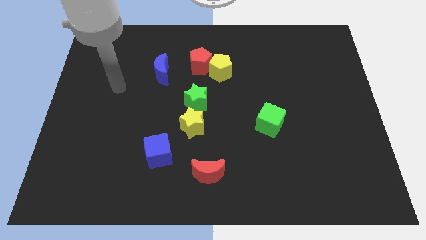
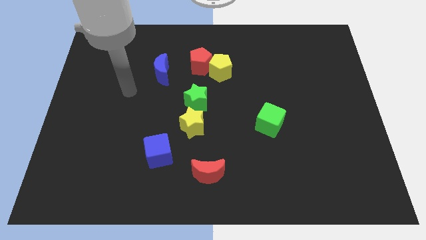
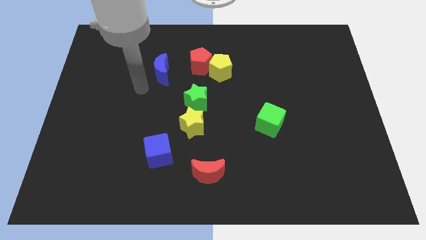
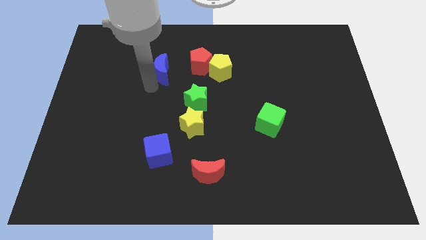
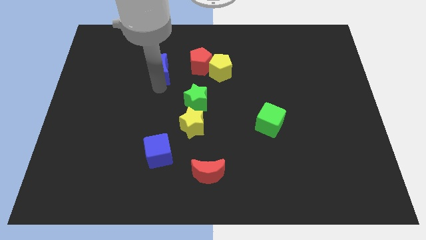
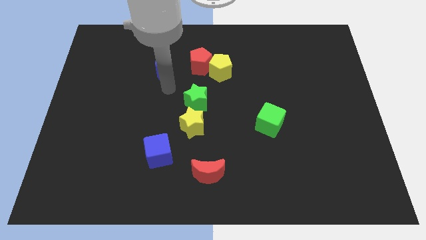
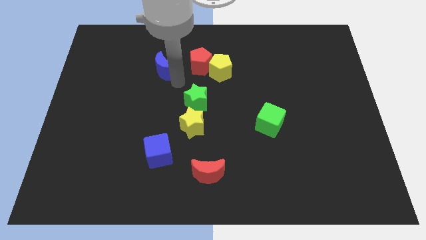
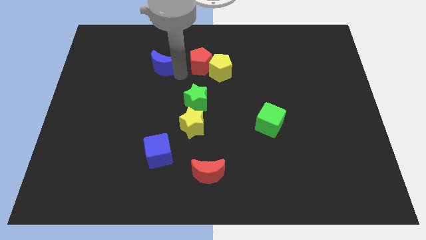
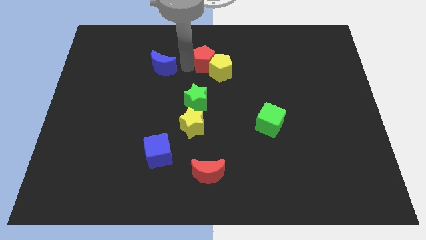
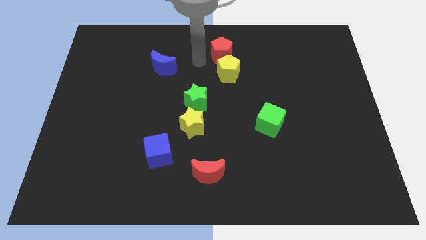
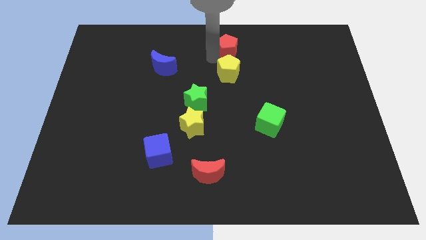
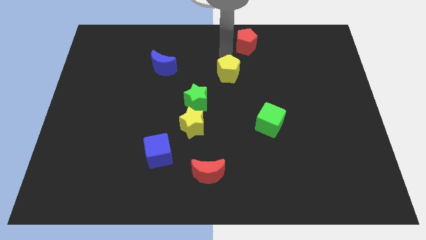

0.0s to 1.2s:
separate the yellow pentagon from the red pentagon

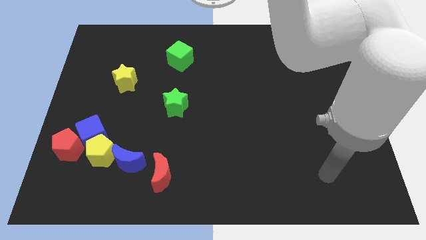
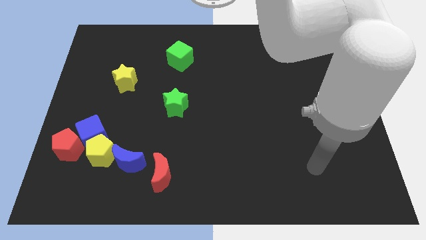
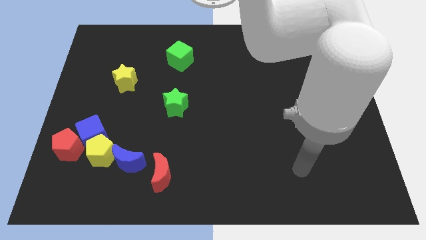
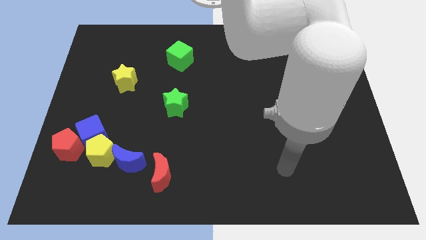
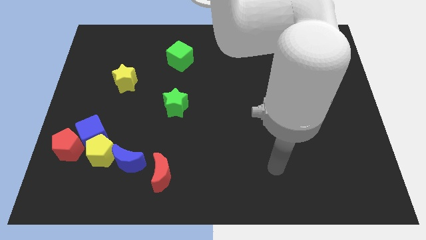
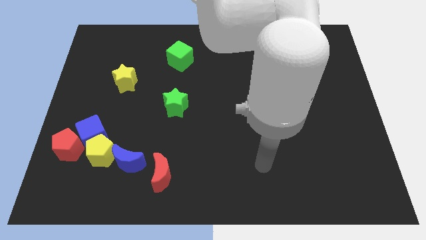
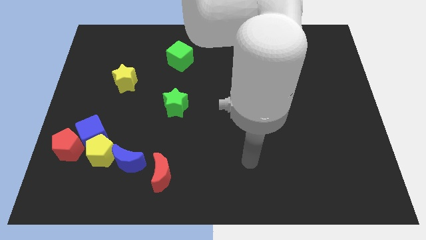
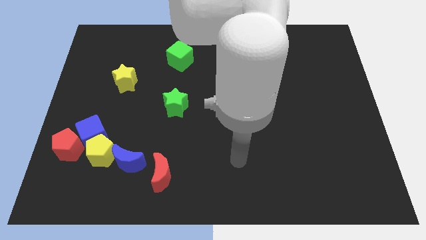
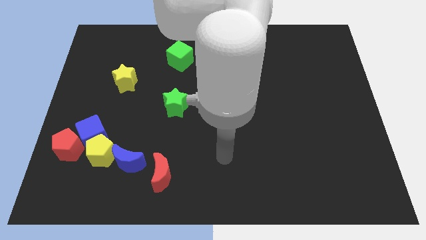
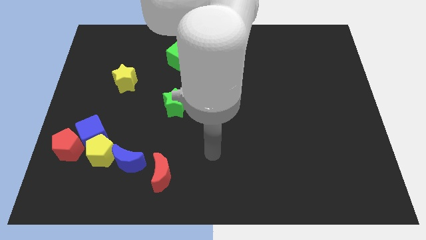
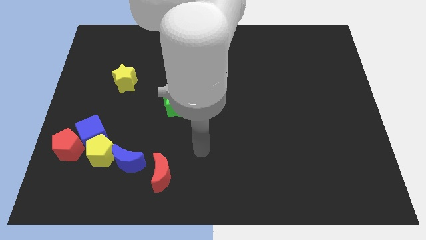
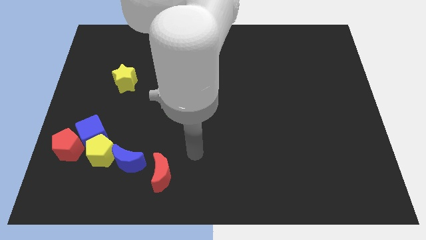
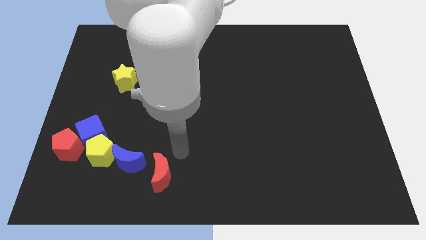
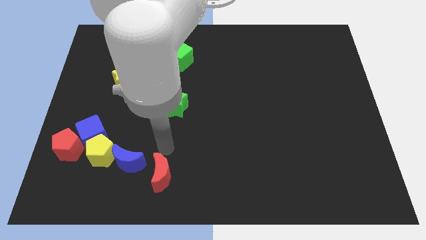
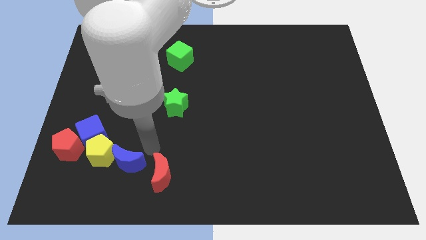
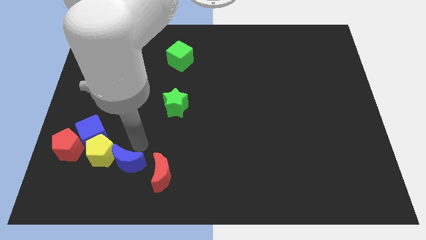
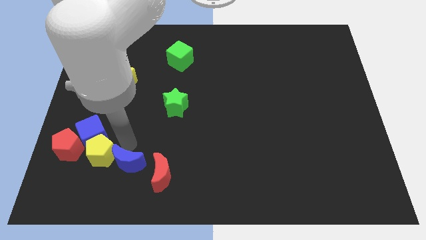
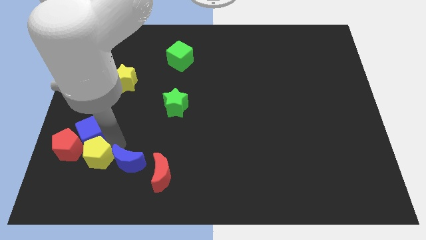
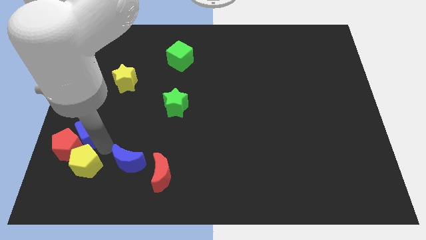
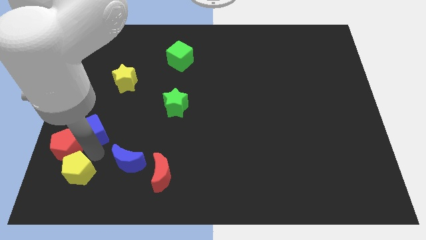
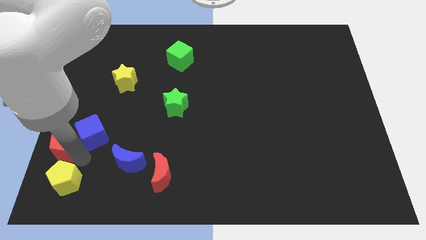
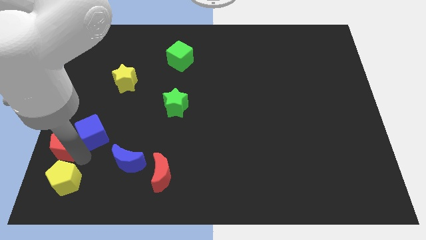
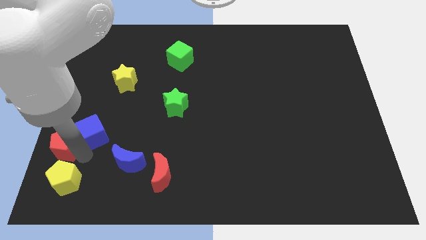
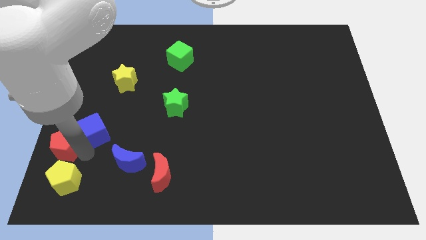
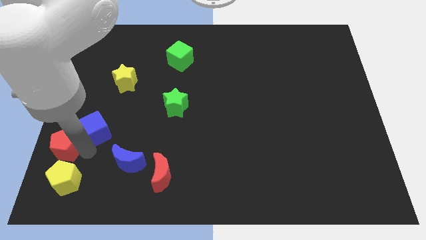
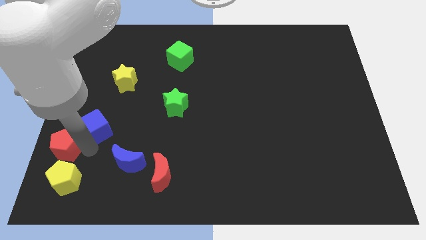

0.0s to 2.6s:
move the blue cube away from the yellow pentagon and red pentagon

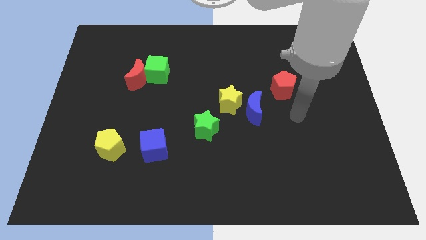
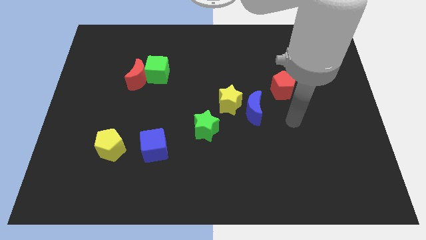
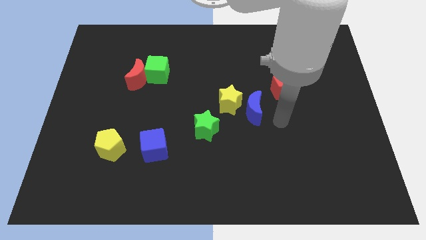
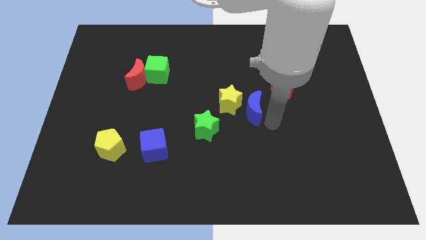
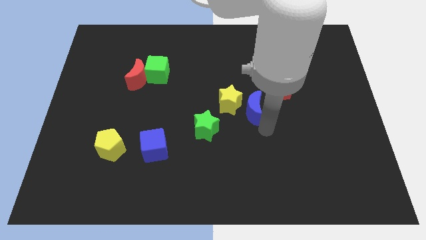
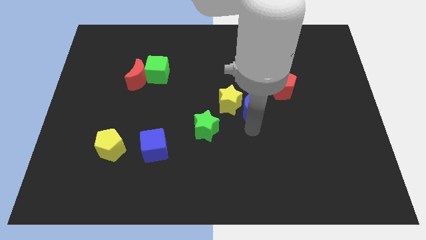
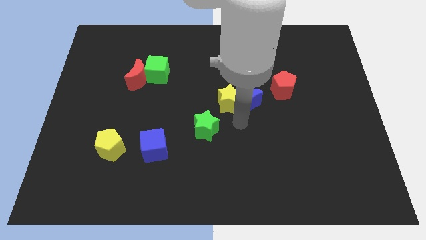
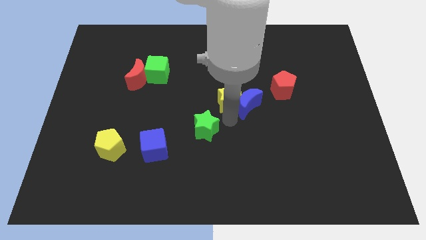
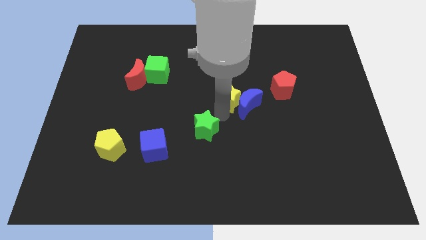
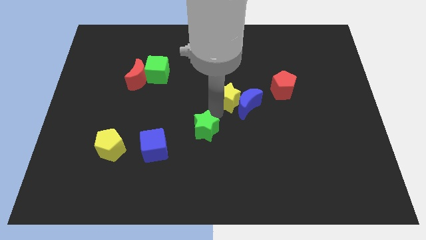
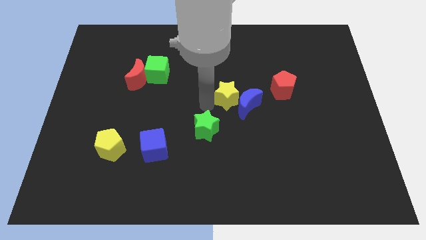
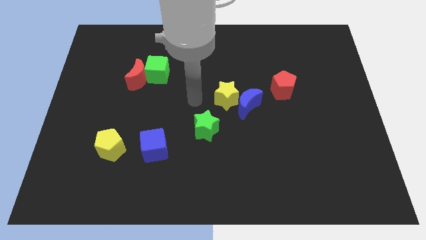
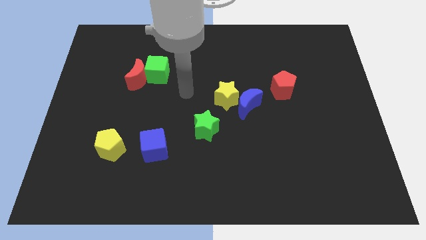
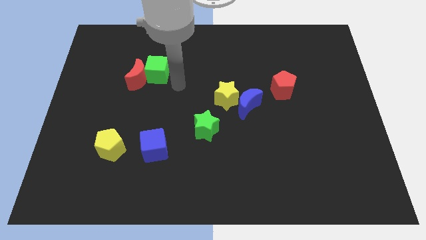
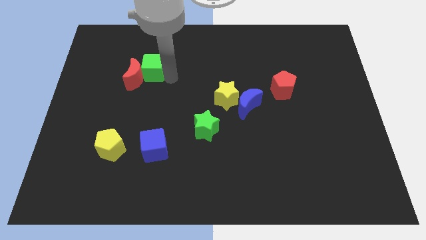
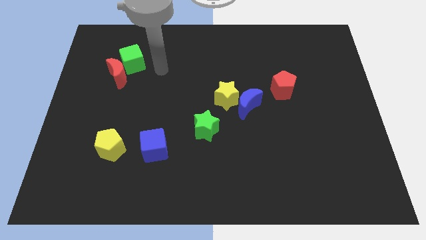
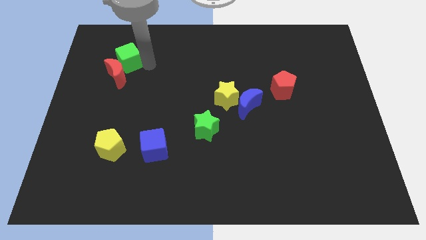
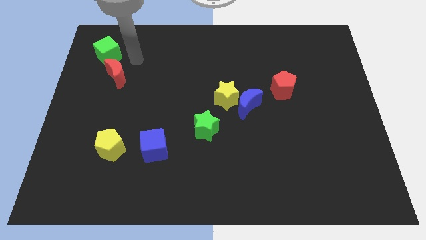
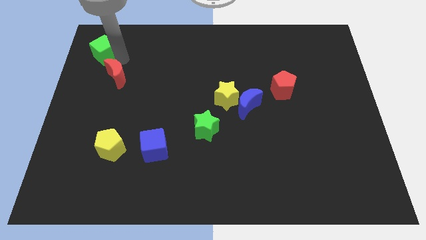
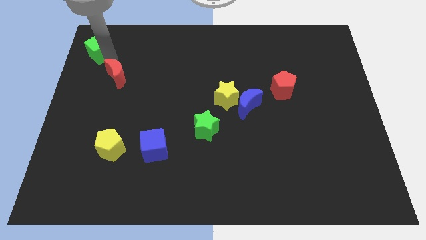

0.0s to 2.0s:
move the red moon away from the green cube

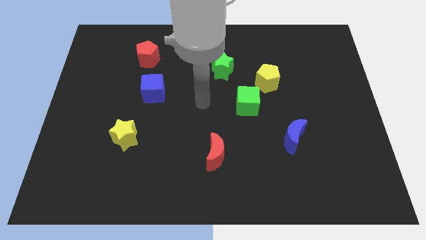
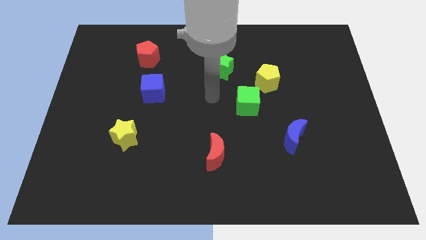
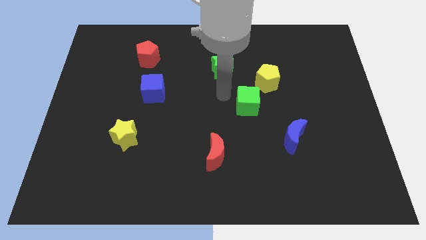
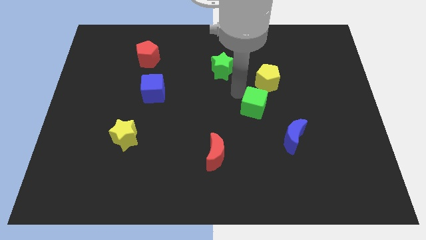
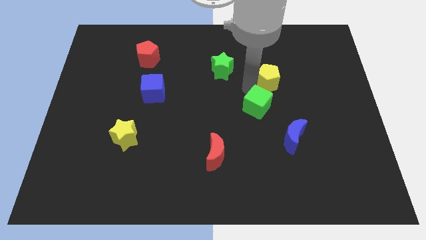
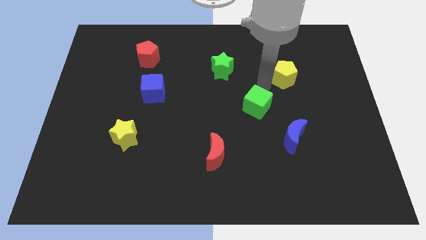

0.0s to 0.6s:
move the green cube away from the yellow pentagon

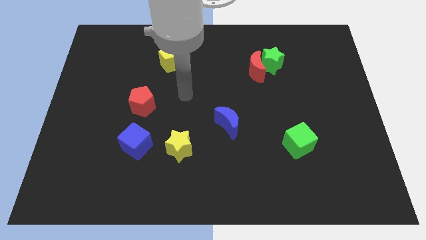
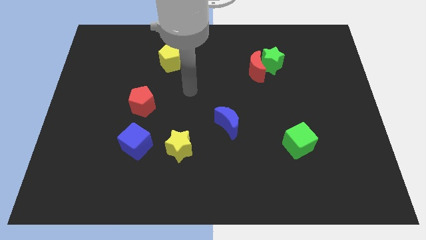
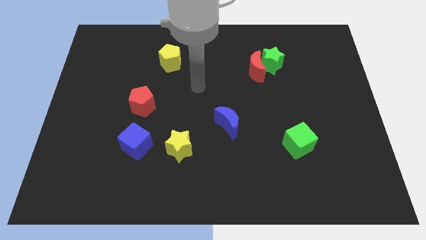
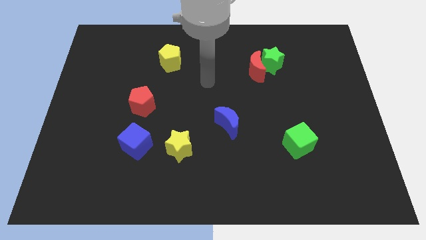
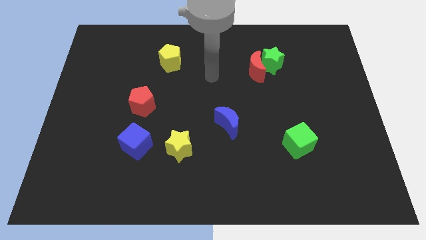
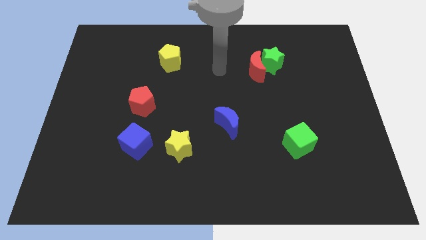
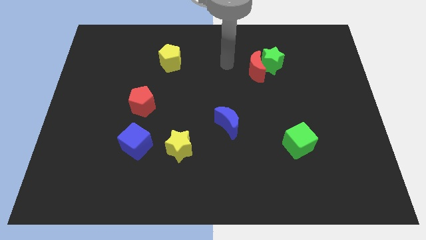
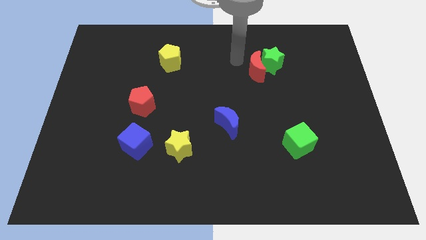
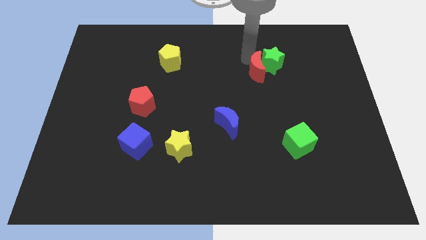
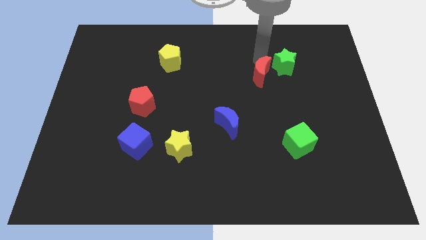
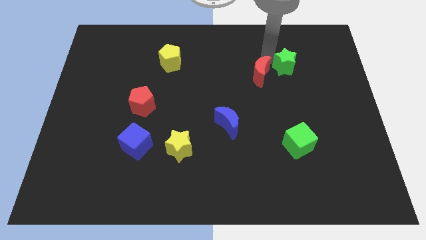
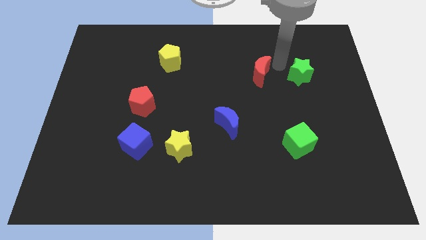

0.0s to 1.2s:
move the red moon away from the green star

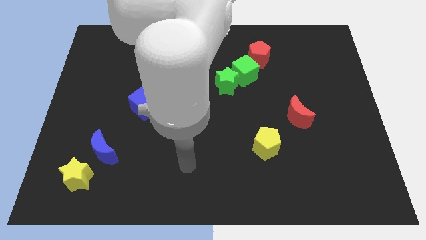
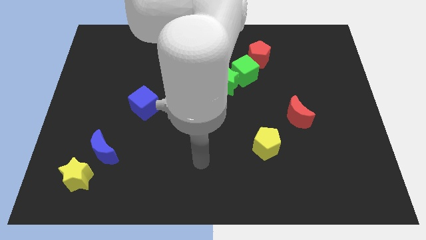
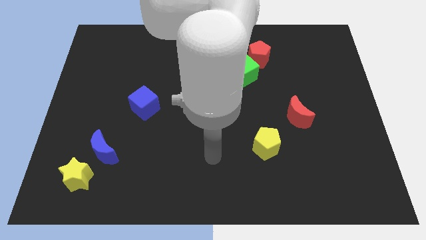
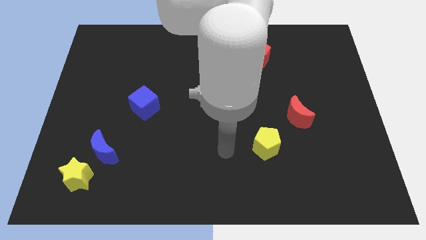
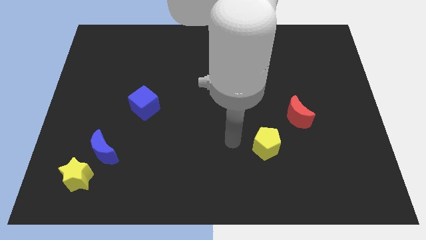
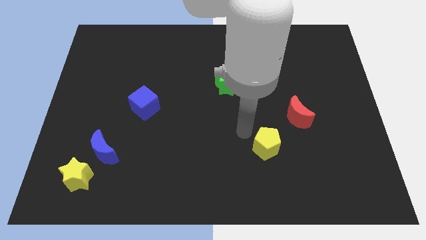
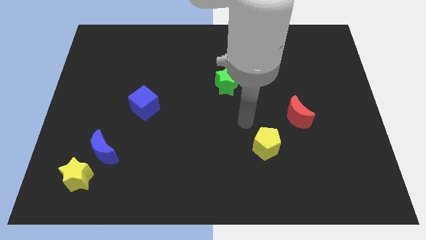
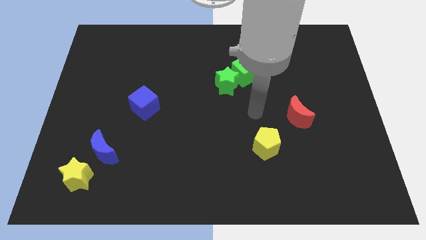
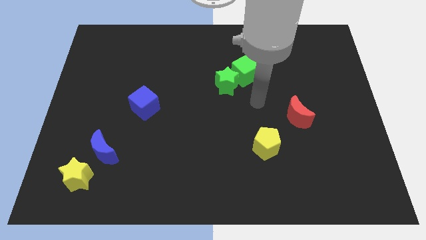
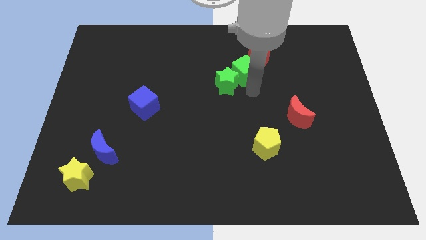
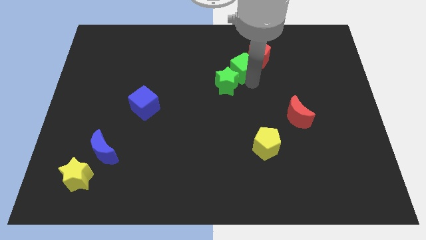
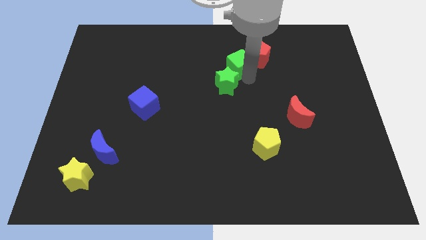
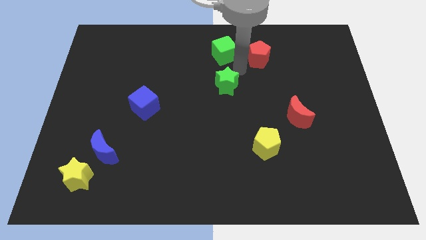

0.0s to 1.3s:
pull the green star apart from the green cube

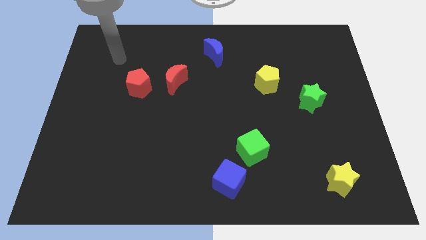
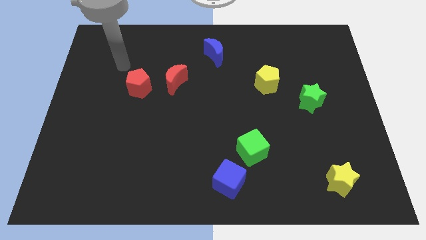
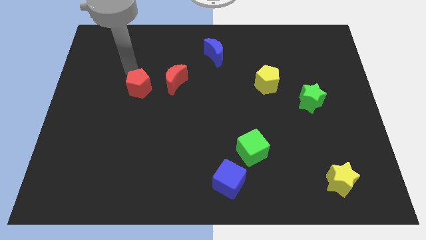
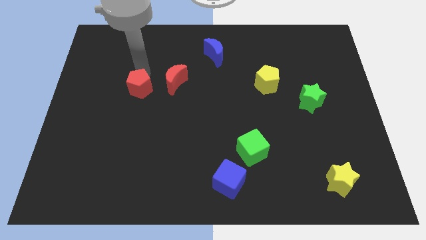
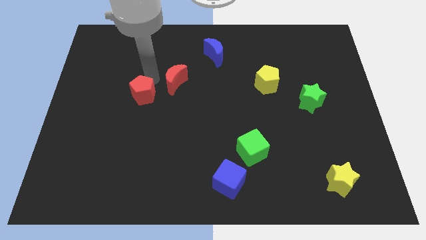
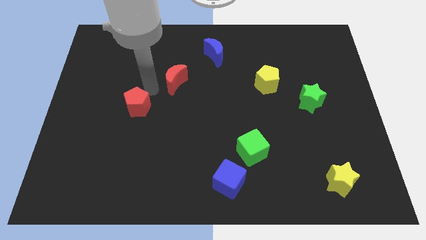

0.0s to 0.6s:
pull the red moon apart from the red pentagon
